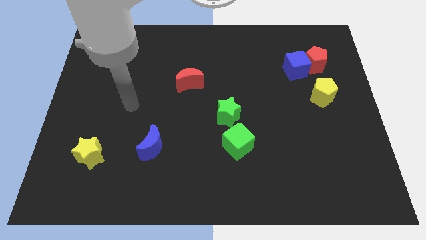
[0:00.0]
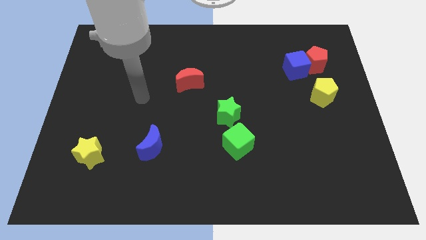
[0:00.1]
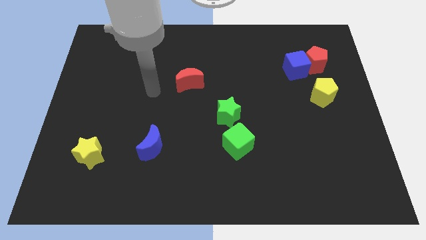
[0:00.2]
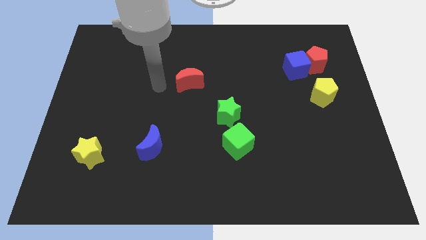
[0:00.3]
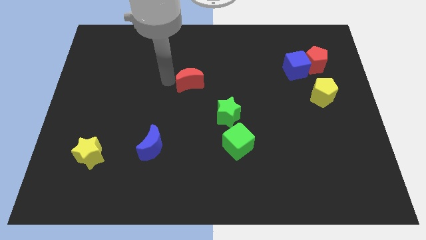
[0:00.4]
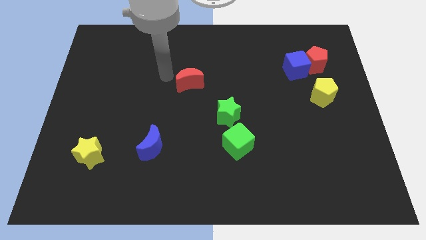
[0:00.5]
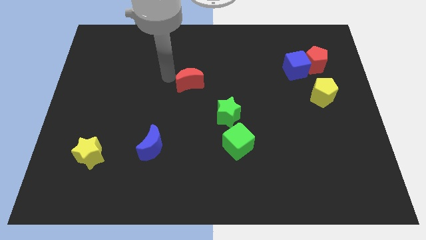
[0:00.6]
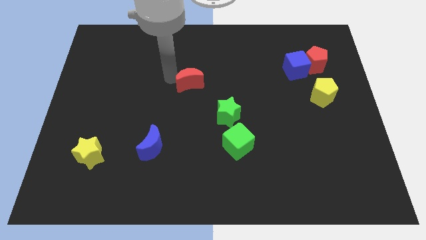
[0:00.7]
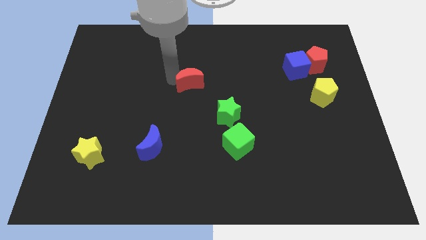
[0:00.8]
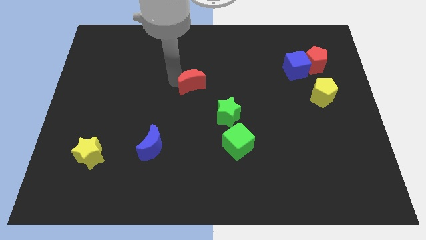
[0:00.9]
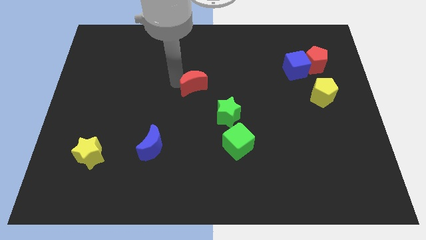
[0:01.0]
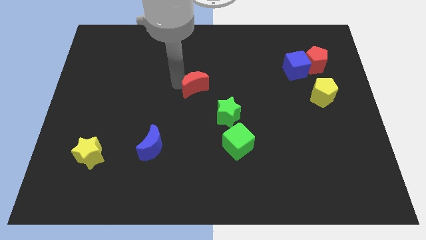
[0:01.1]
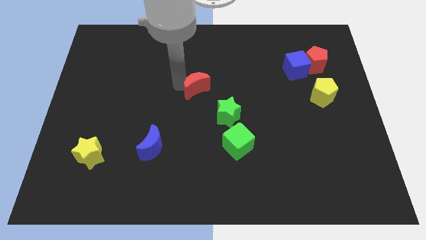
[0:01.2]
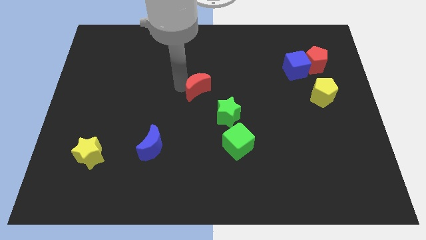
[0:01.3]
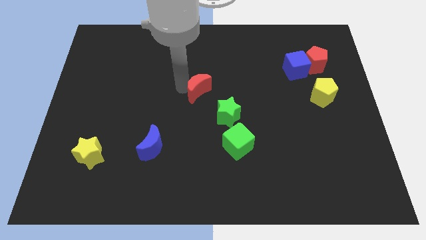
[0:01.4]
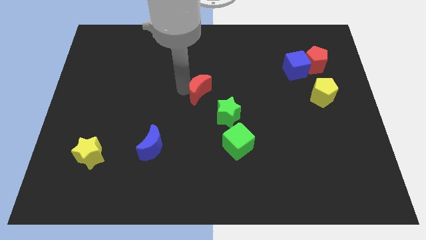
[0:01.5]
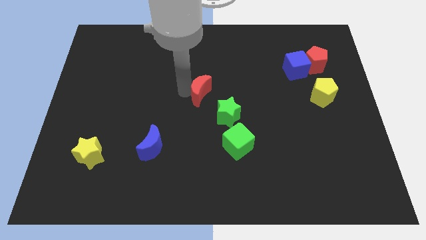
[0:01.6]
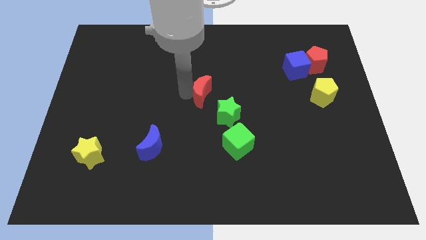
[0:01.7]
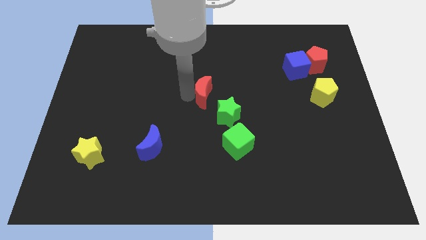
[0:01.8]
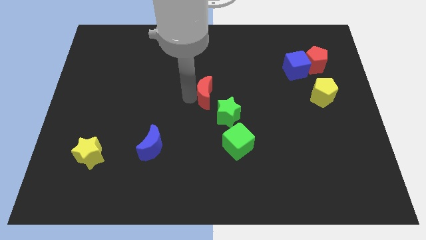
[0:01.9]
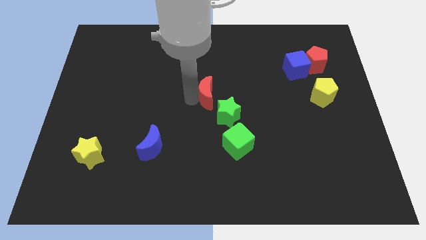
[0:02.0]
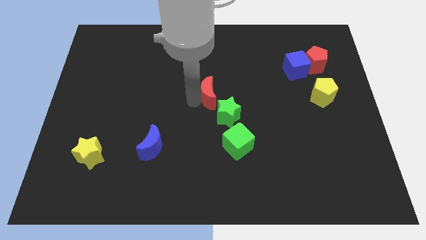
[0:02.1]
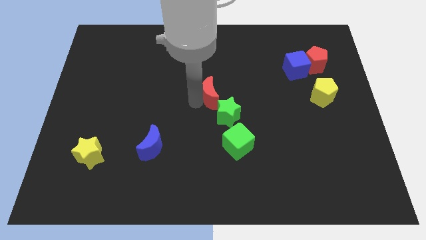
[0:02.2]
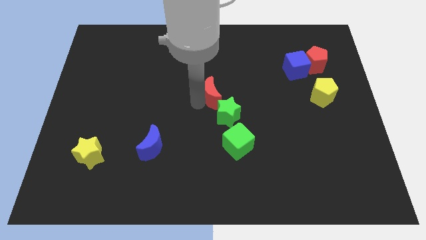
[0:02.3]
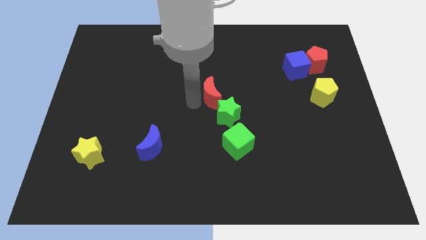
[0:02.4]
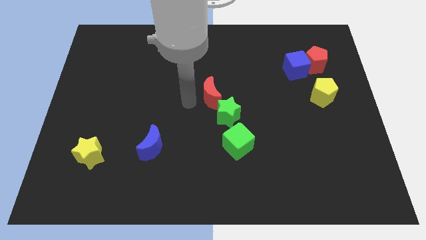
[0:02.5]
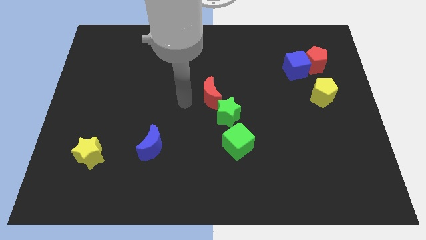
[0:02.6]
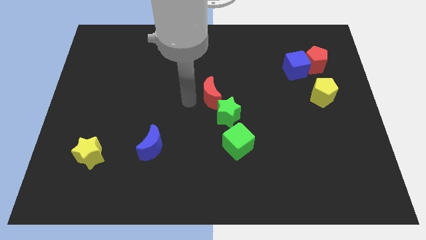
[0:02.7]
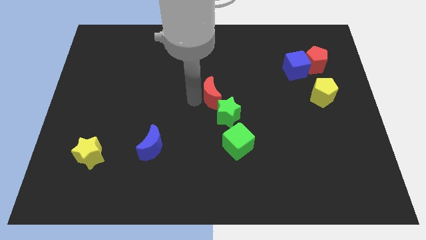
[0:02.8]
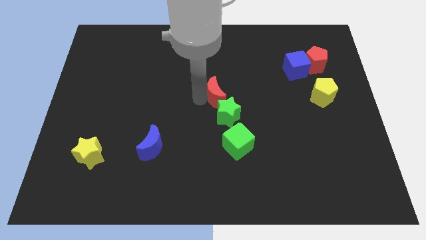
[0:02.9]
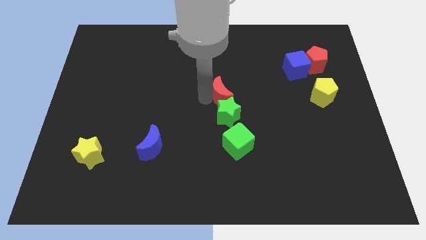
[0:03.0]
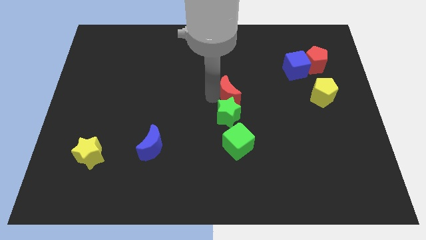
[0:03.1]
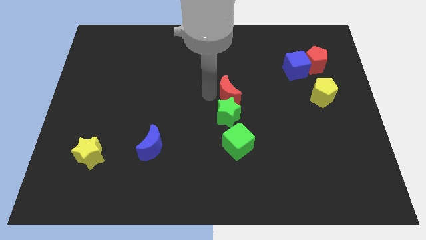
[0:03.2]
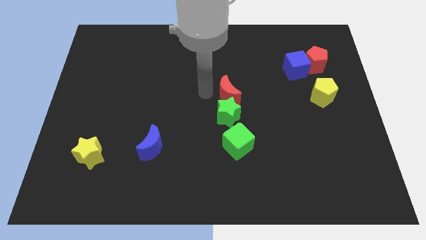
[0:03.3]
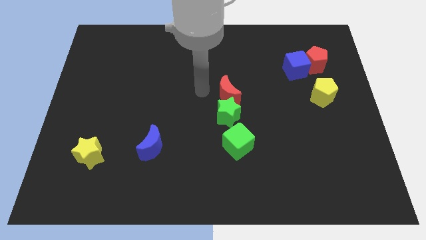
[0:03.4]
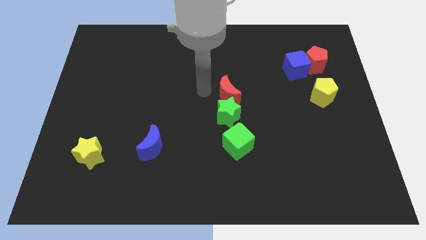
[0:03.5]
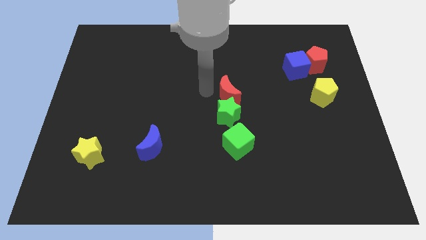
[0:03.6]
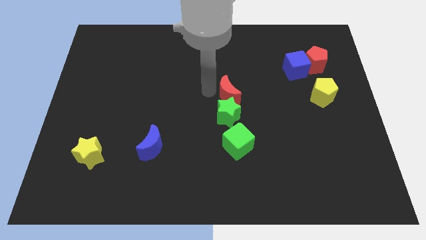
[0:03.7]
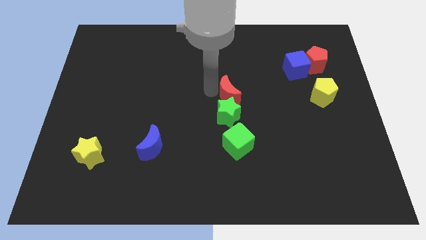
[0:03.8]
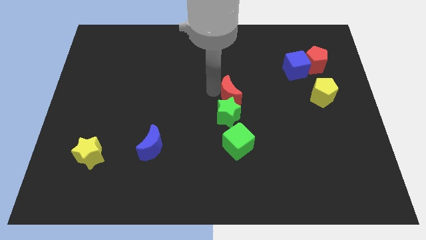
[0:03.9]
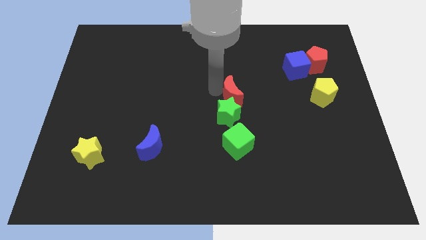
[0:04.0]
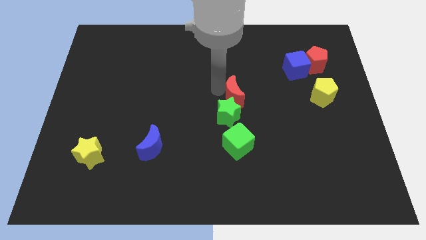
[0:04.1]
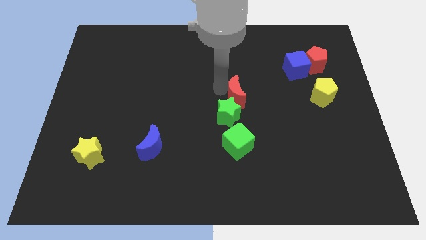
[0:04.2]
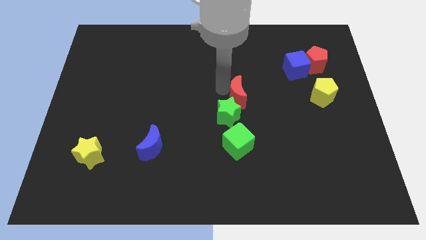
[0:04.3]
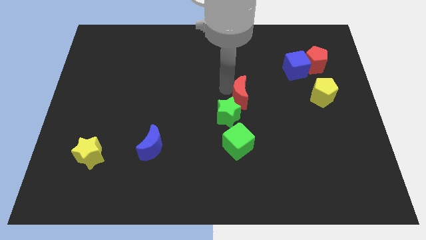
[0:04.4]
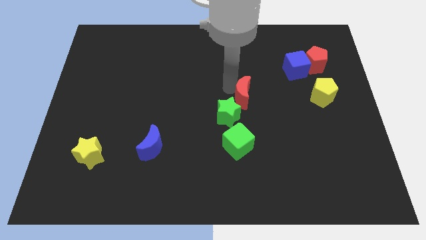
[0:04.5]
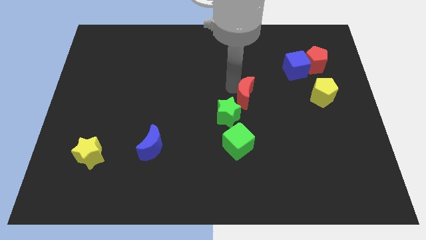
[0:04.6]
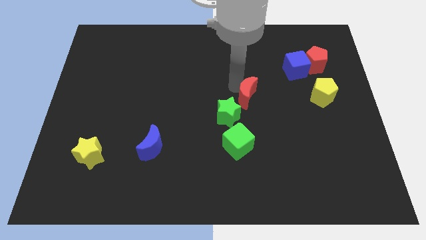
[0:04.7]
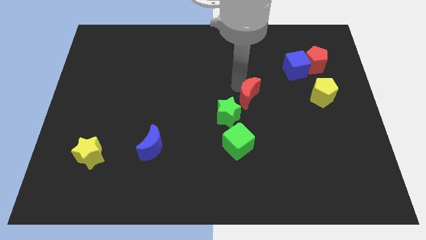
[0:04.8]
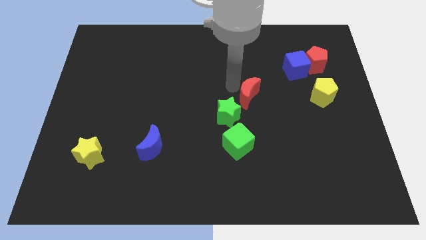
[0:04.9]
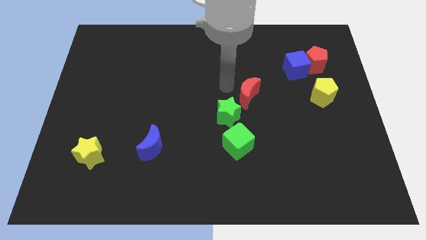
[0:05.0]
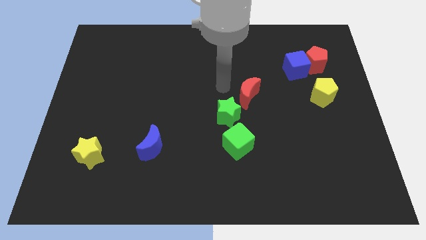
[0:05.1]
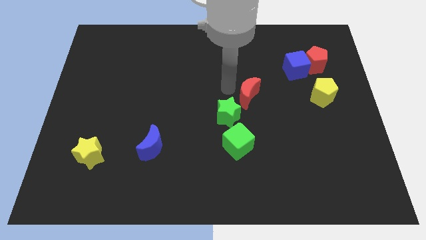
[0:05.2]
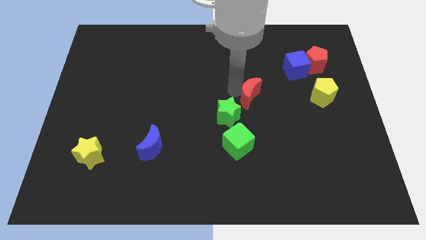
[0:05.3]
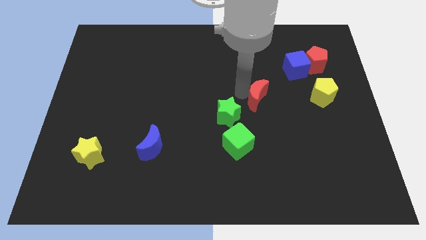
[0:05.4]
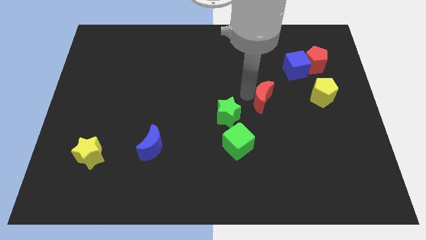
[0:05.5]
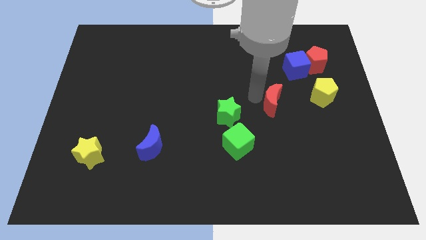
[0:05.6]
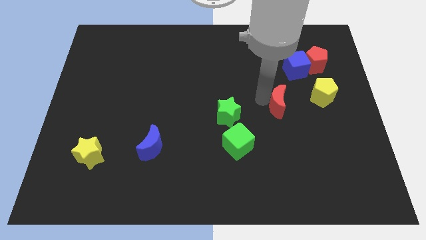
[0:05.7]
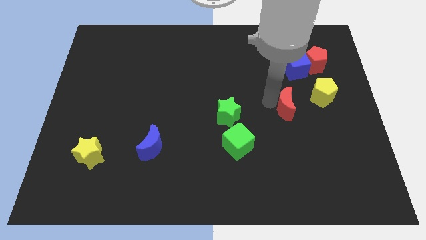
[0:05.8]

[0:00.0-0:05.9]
move the red moon right

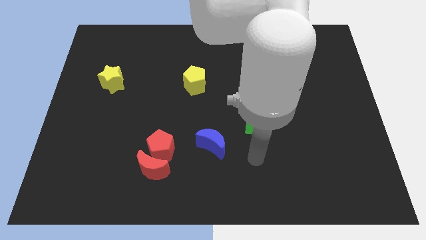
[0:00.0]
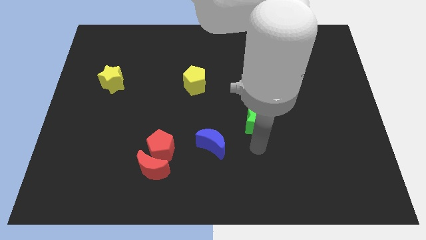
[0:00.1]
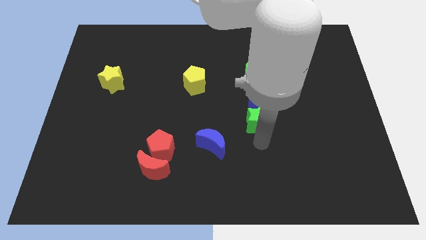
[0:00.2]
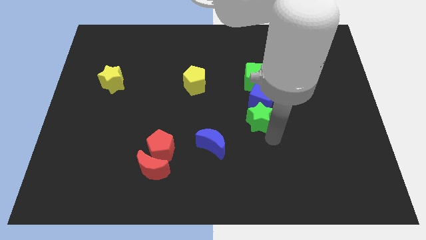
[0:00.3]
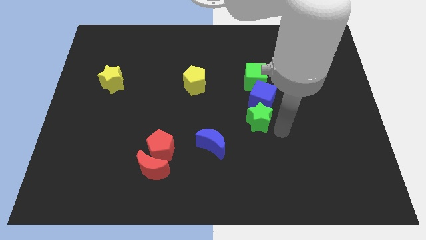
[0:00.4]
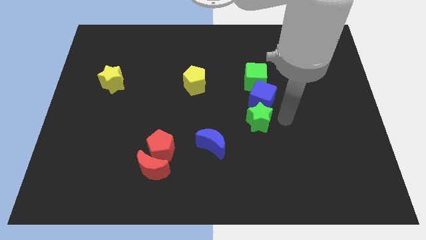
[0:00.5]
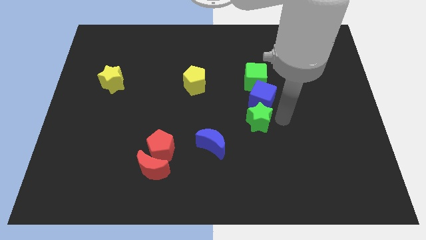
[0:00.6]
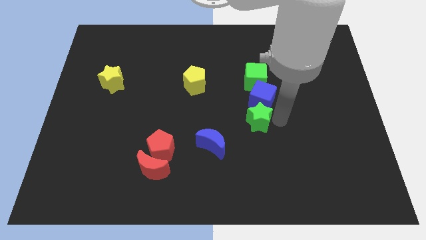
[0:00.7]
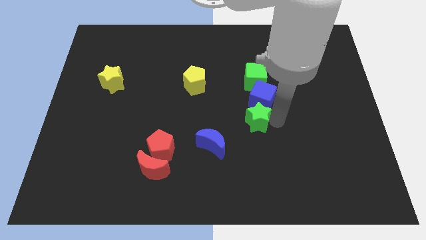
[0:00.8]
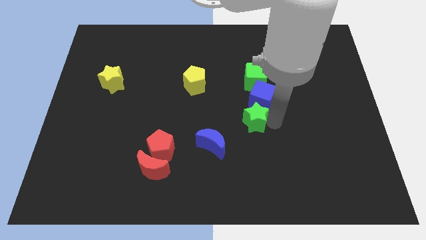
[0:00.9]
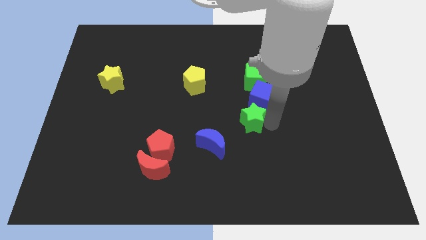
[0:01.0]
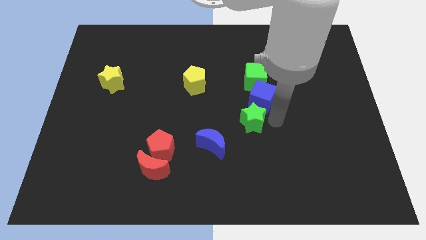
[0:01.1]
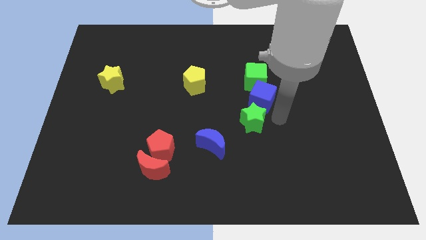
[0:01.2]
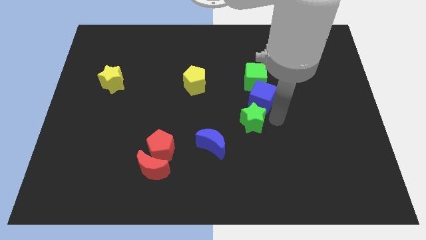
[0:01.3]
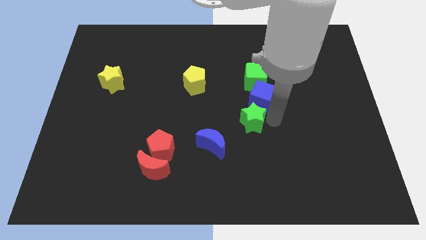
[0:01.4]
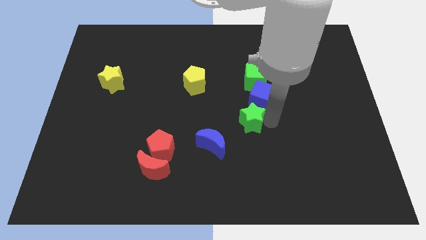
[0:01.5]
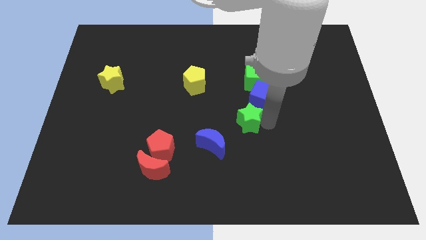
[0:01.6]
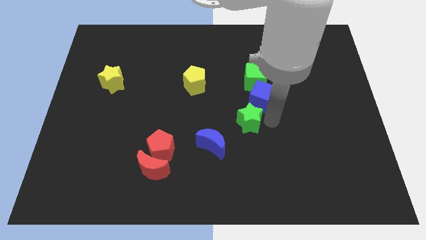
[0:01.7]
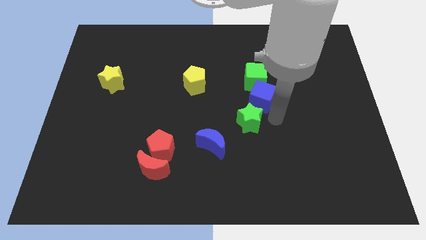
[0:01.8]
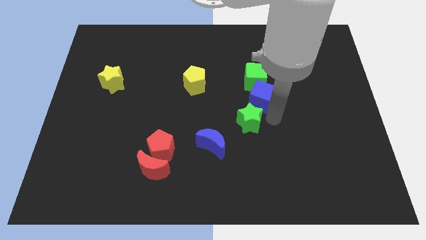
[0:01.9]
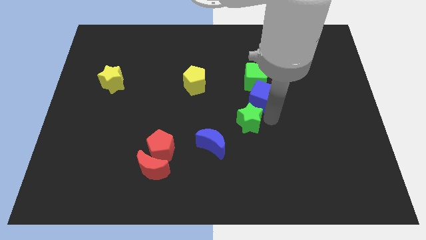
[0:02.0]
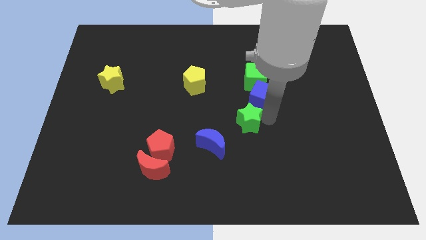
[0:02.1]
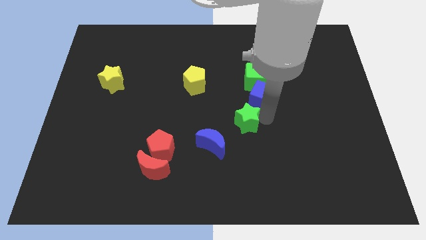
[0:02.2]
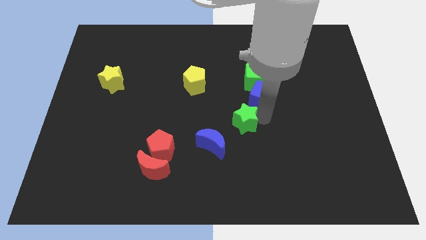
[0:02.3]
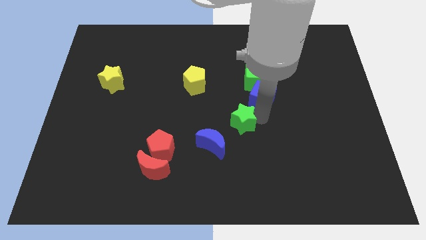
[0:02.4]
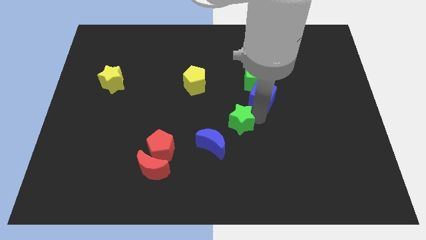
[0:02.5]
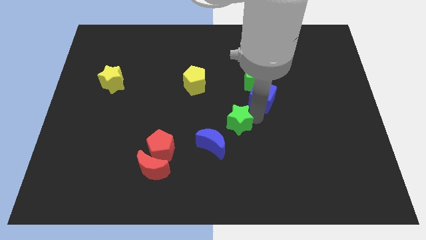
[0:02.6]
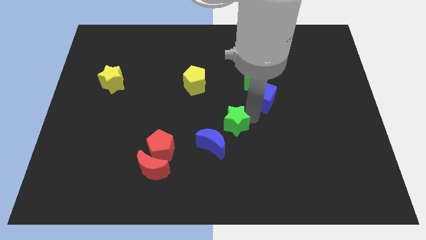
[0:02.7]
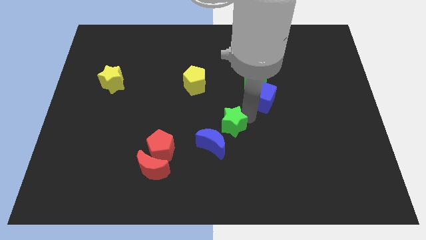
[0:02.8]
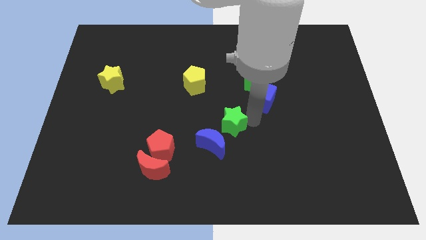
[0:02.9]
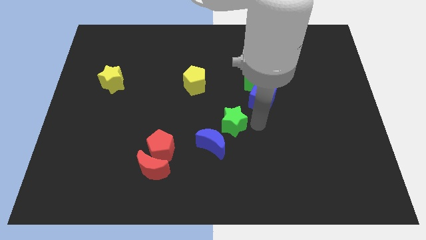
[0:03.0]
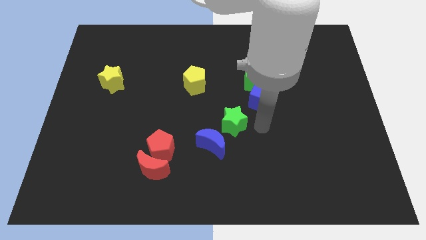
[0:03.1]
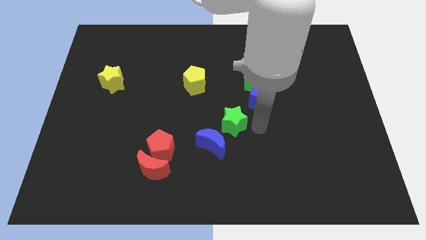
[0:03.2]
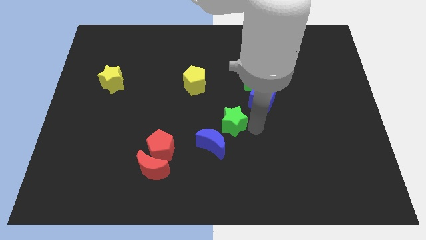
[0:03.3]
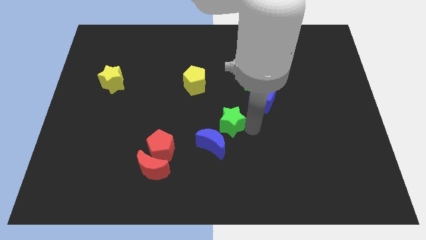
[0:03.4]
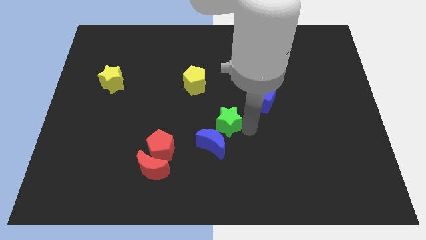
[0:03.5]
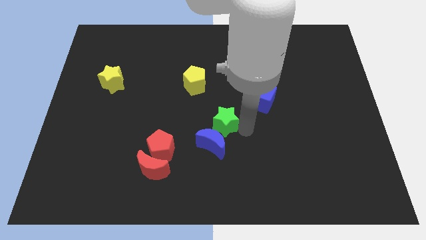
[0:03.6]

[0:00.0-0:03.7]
slide the green star to the left a bit
